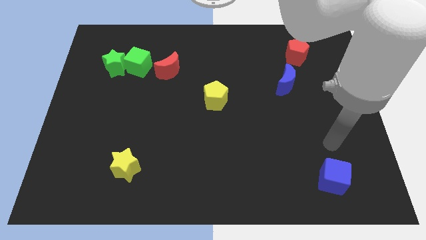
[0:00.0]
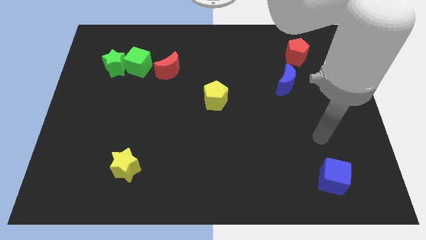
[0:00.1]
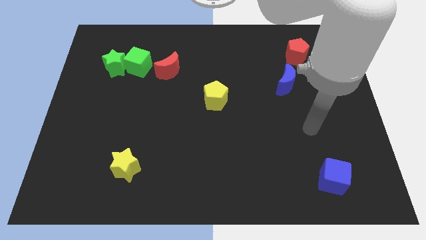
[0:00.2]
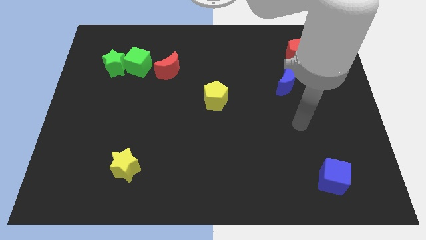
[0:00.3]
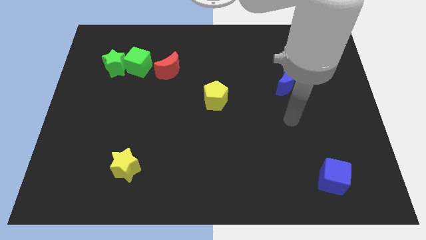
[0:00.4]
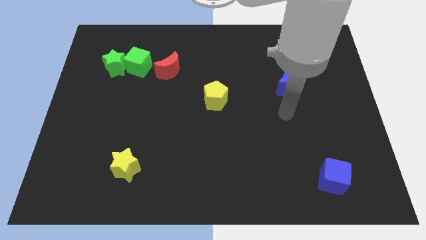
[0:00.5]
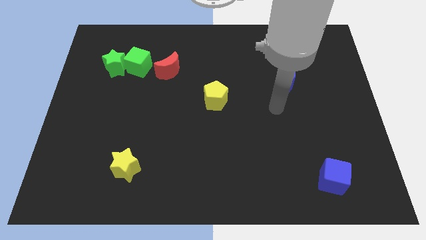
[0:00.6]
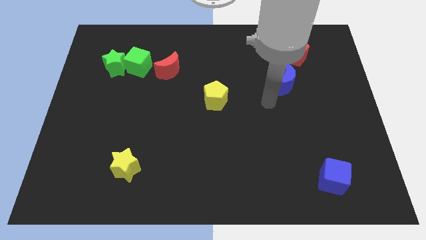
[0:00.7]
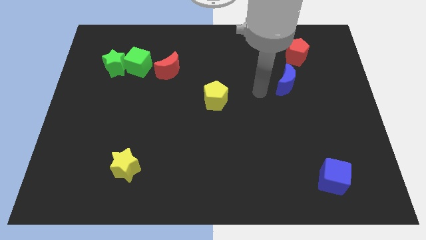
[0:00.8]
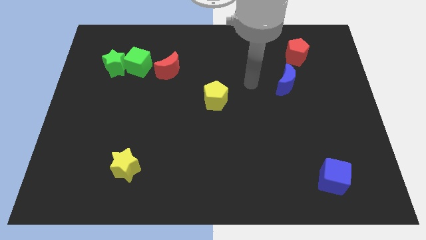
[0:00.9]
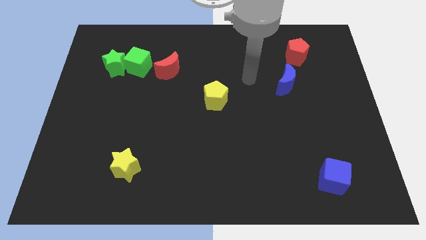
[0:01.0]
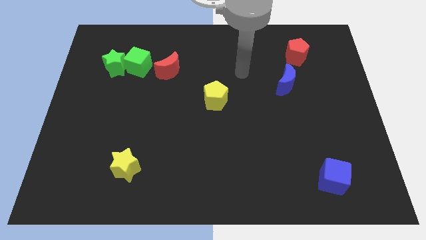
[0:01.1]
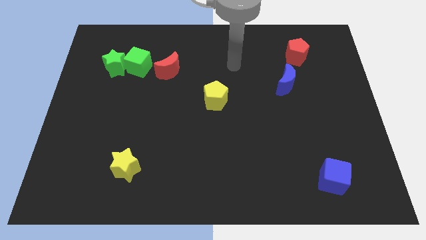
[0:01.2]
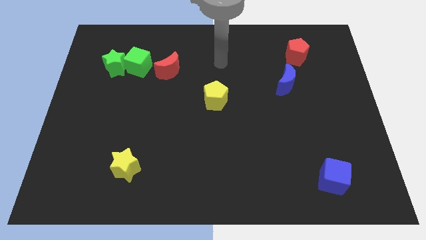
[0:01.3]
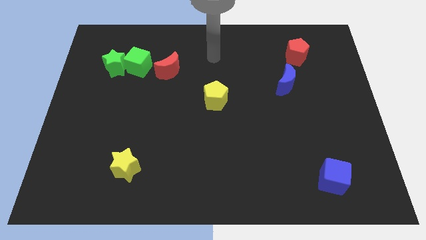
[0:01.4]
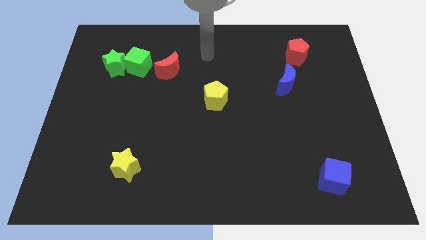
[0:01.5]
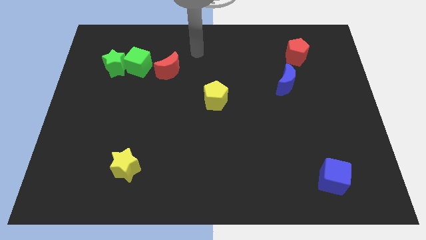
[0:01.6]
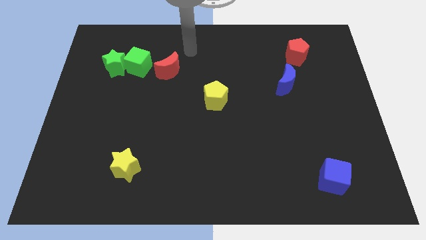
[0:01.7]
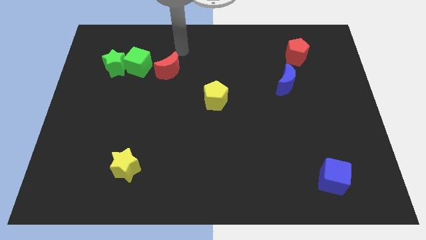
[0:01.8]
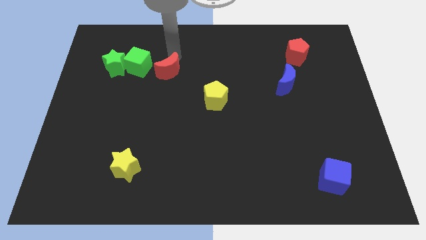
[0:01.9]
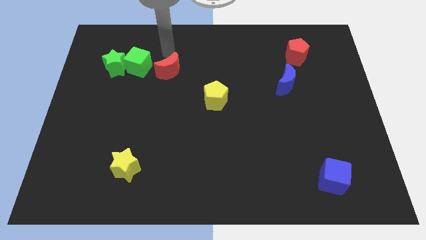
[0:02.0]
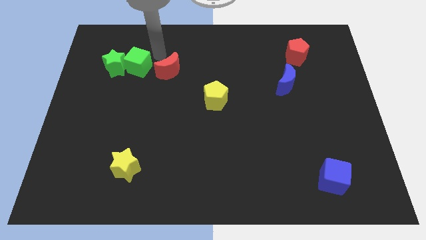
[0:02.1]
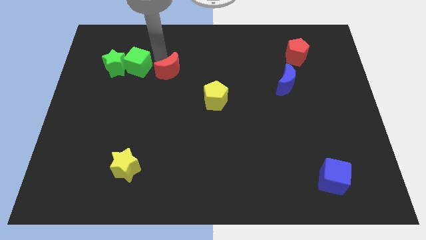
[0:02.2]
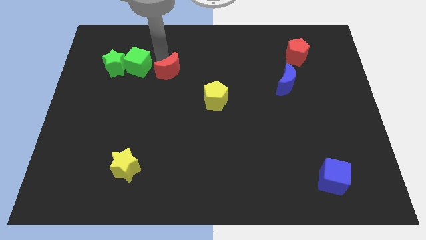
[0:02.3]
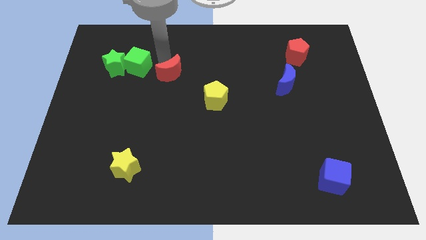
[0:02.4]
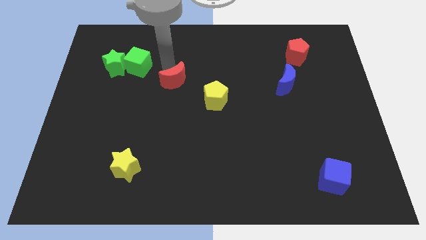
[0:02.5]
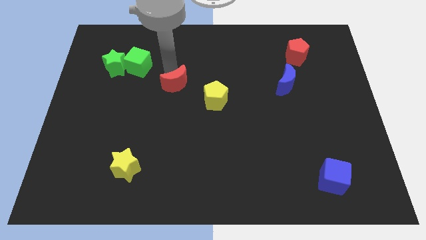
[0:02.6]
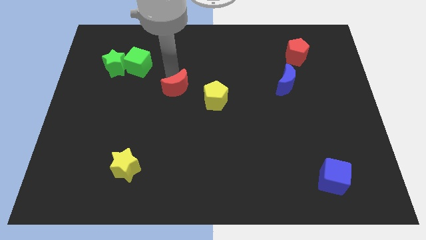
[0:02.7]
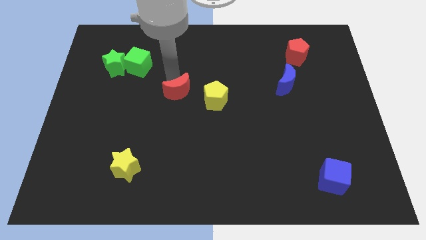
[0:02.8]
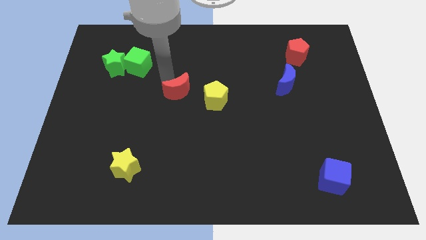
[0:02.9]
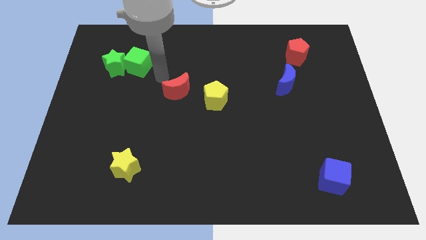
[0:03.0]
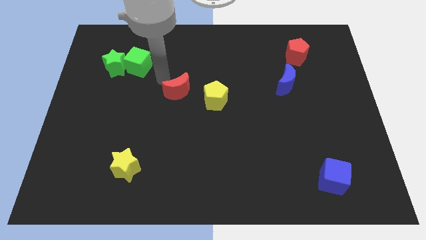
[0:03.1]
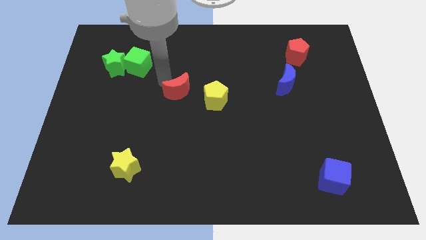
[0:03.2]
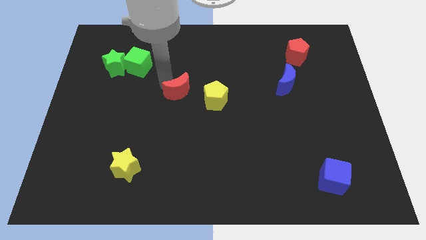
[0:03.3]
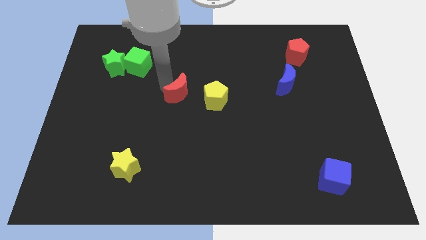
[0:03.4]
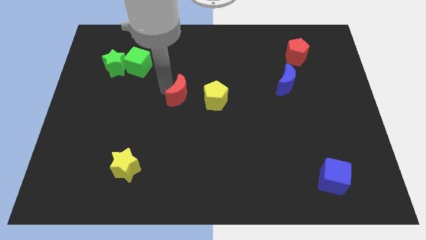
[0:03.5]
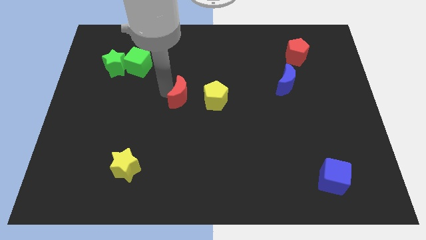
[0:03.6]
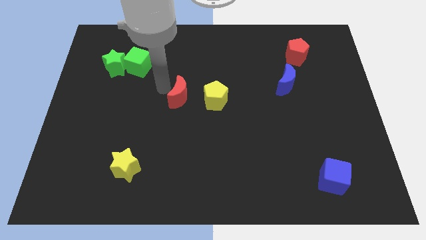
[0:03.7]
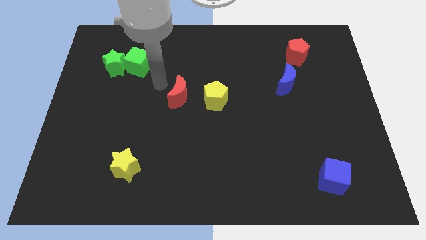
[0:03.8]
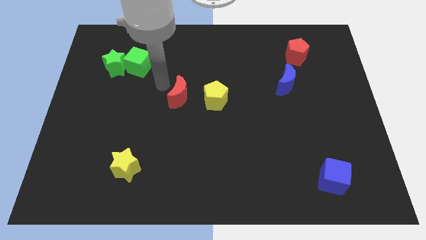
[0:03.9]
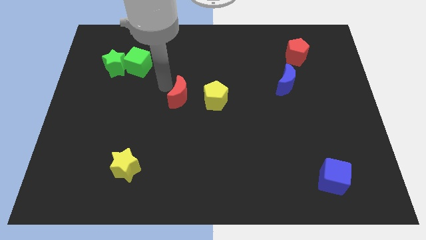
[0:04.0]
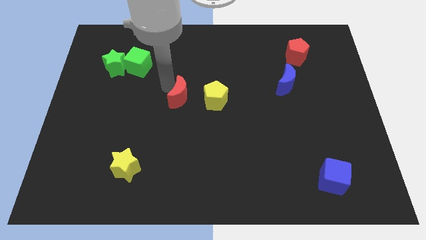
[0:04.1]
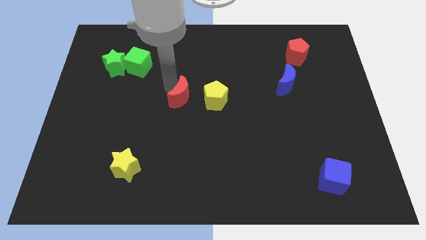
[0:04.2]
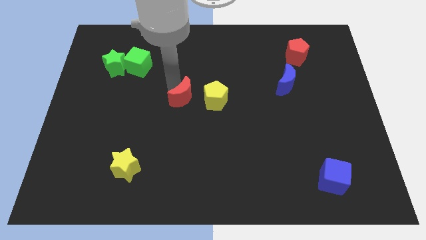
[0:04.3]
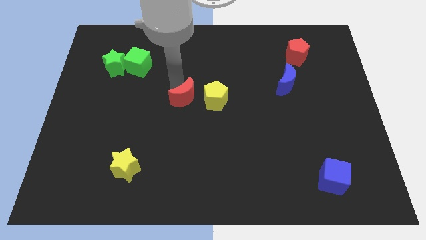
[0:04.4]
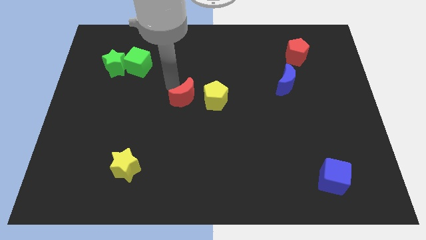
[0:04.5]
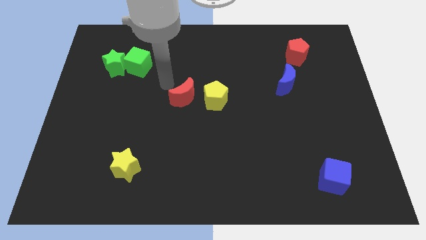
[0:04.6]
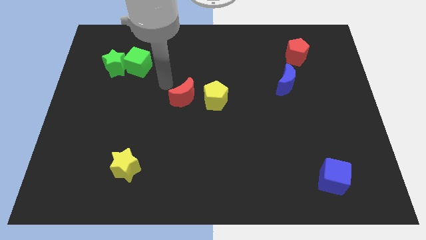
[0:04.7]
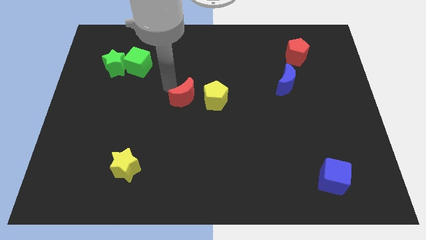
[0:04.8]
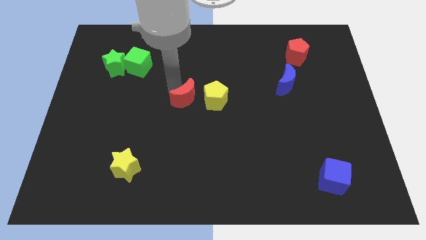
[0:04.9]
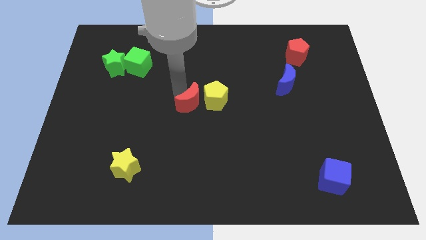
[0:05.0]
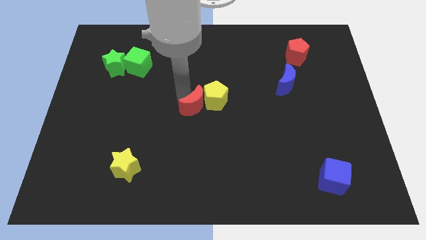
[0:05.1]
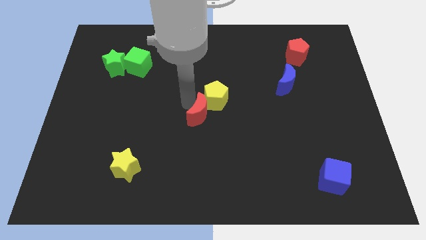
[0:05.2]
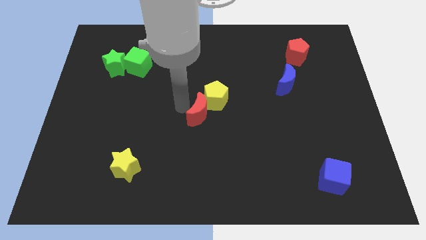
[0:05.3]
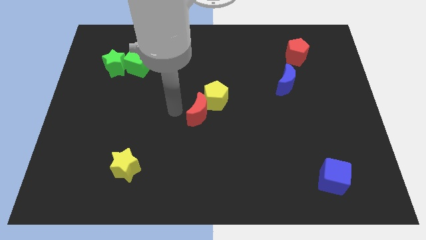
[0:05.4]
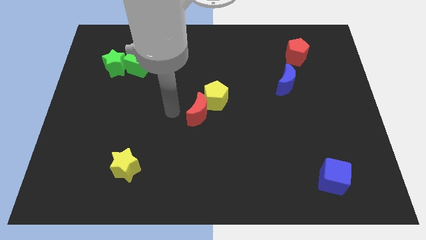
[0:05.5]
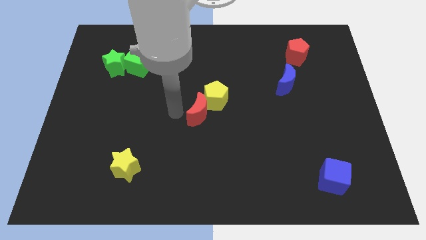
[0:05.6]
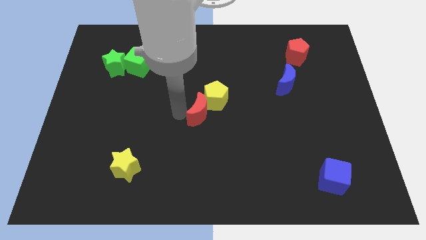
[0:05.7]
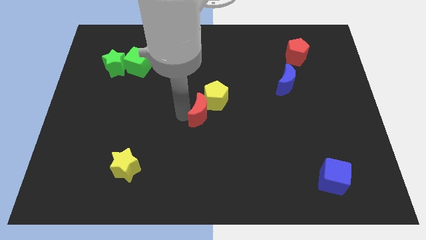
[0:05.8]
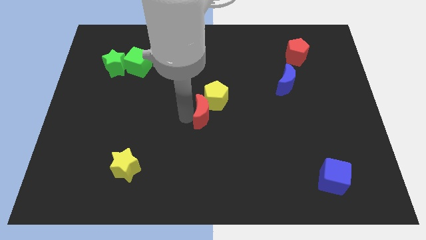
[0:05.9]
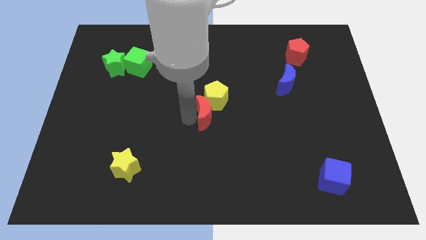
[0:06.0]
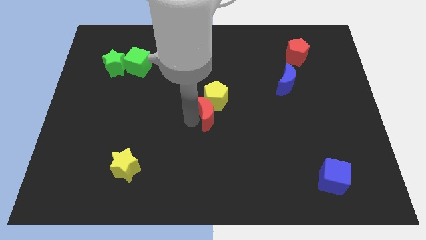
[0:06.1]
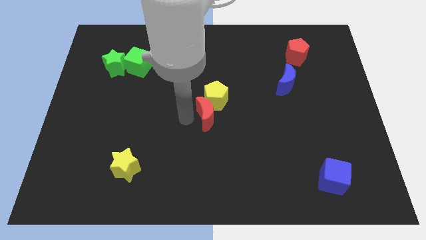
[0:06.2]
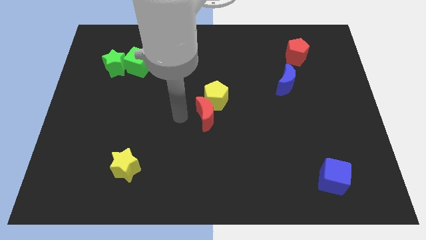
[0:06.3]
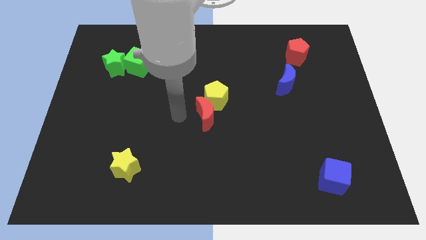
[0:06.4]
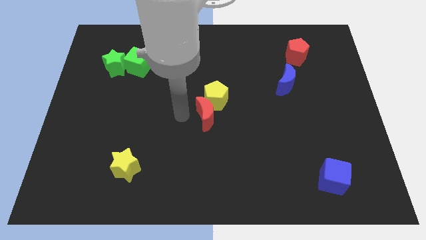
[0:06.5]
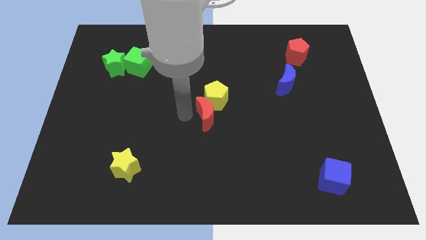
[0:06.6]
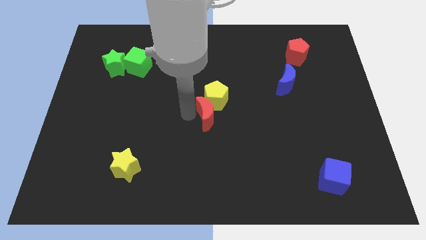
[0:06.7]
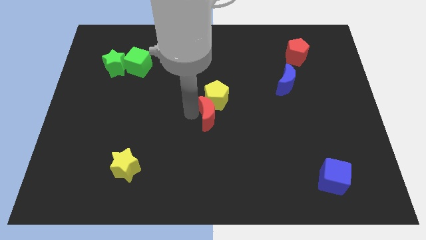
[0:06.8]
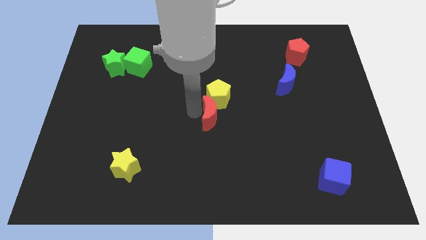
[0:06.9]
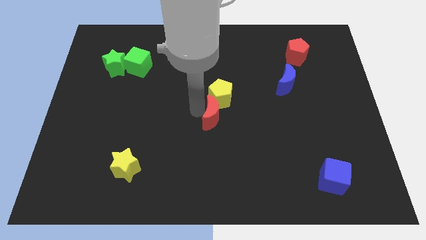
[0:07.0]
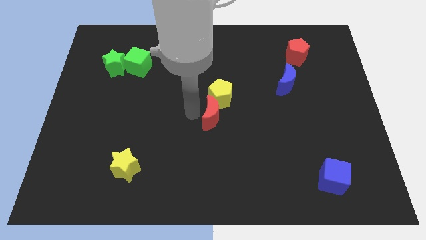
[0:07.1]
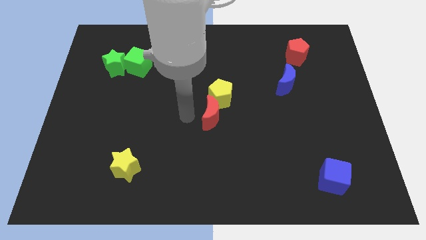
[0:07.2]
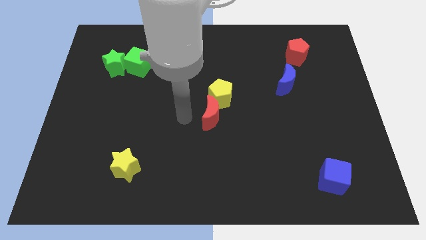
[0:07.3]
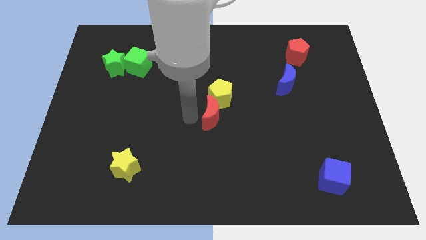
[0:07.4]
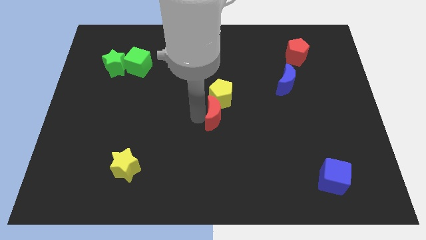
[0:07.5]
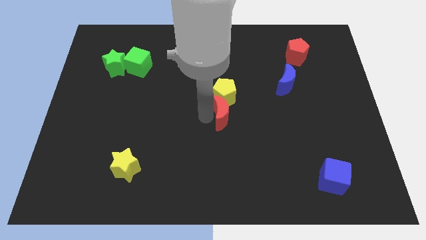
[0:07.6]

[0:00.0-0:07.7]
slide the red moon to the bottom right side of the yellow pentagon
